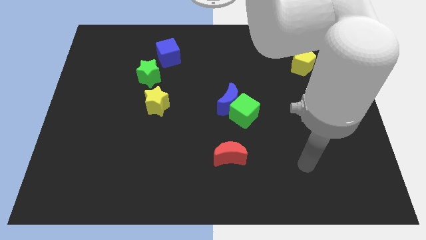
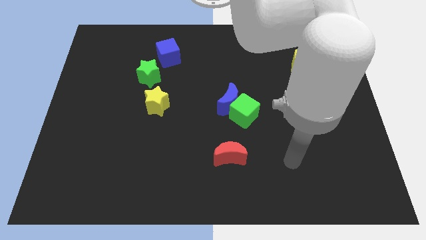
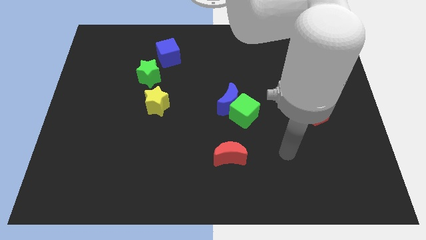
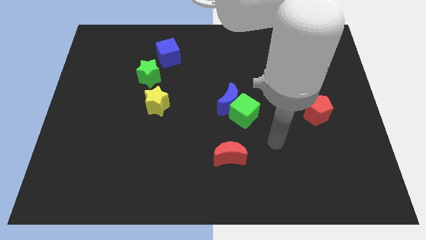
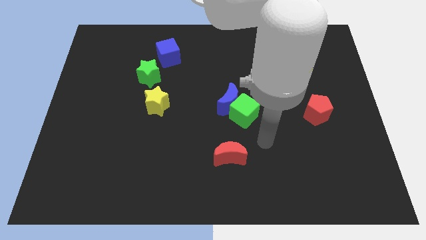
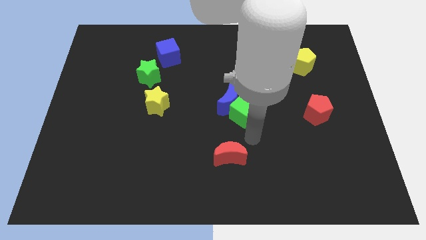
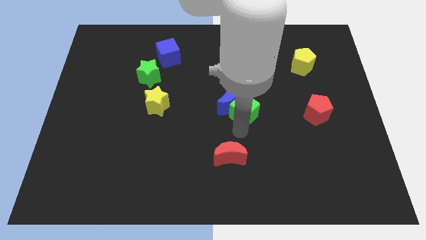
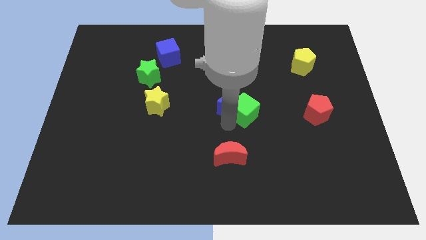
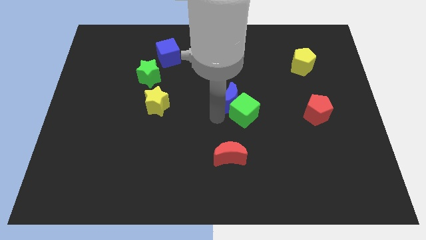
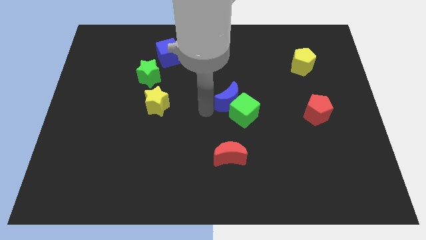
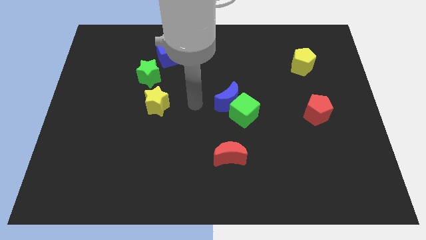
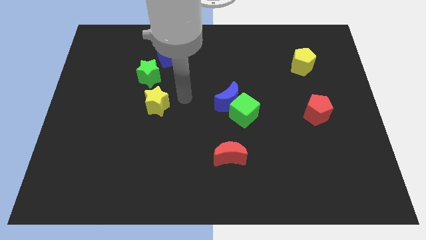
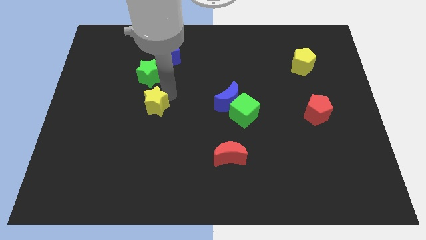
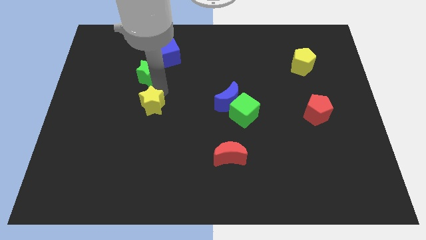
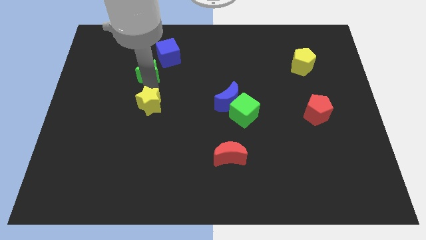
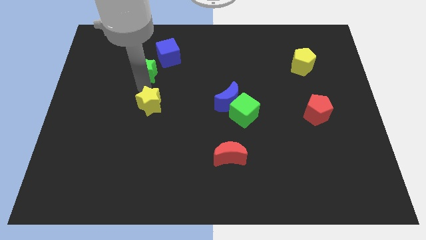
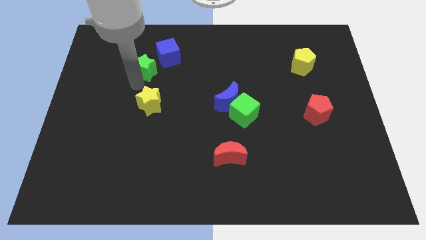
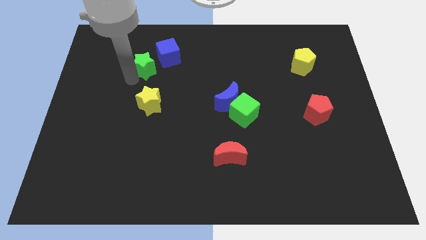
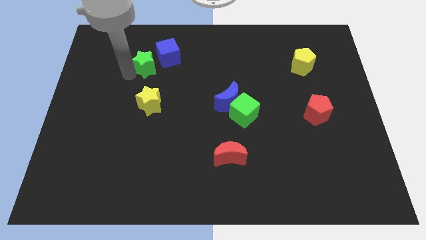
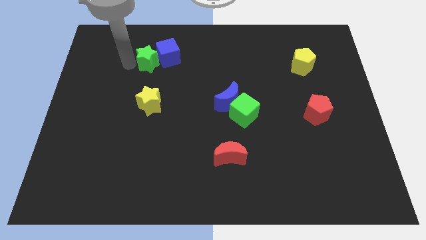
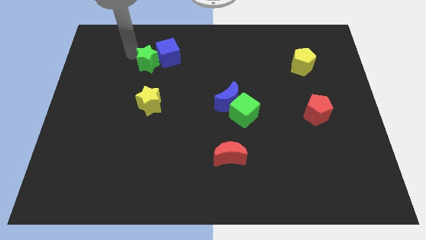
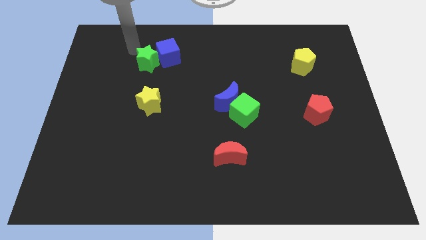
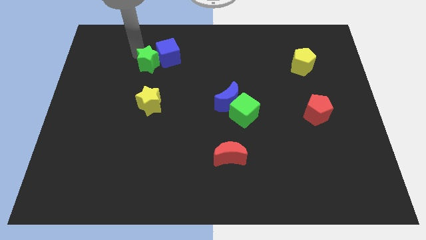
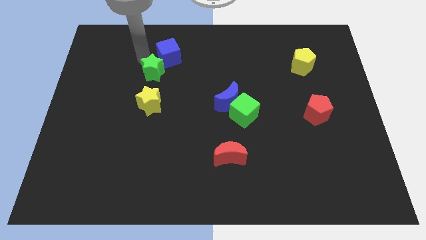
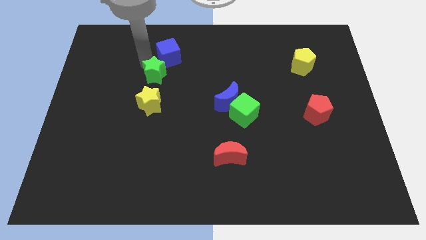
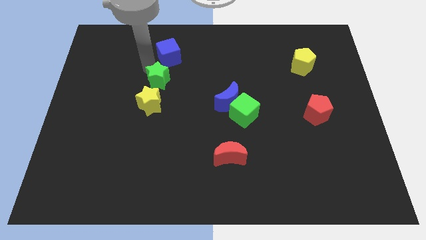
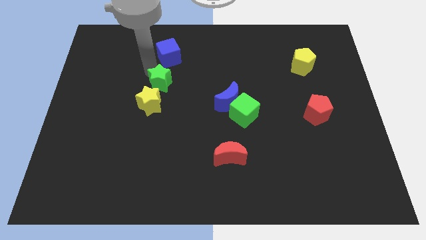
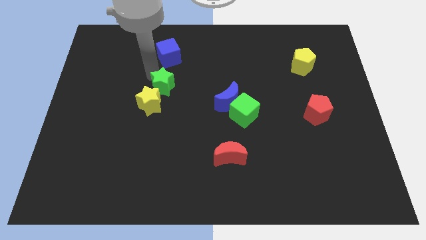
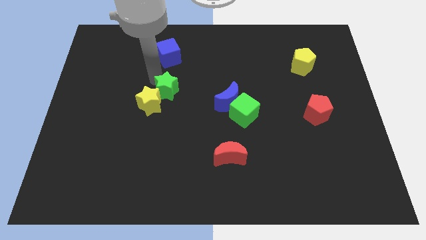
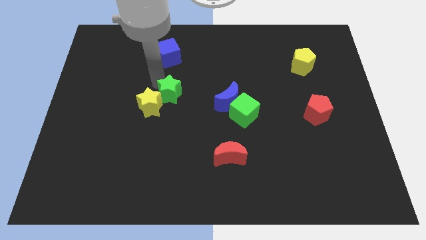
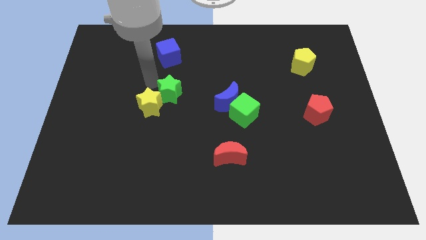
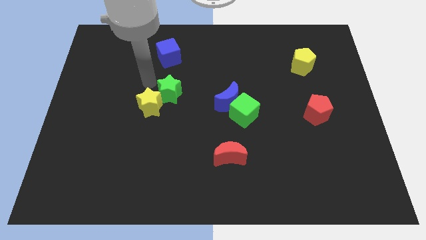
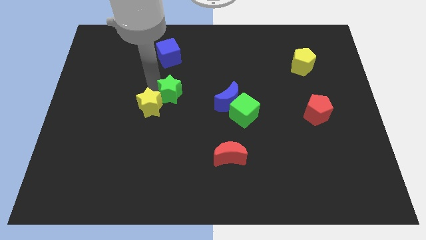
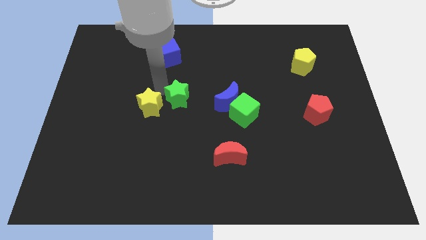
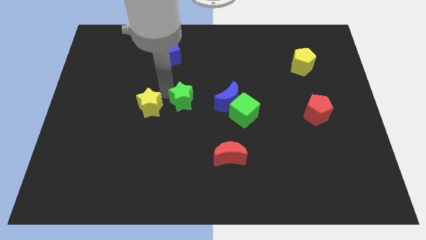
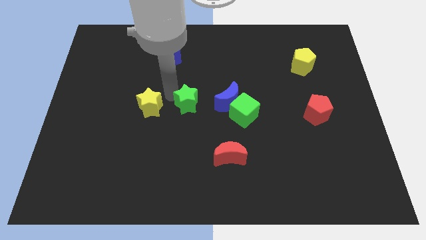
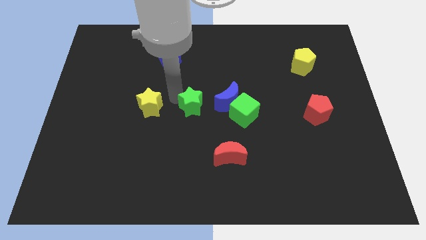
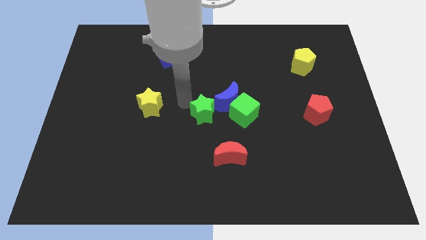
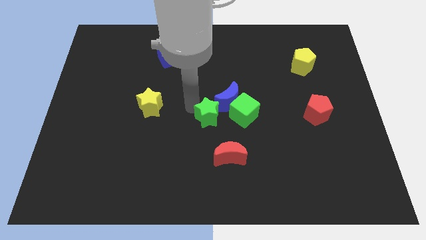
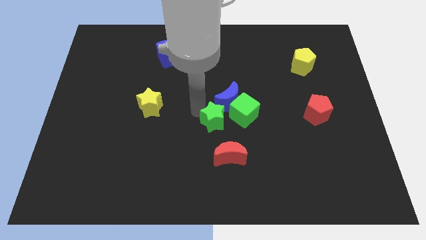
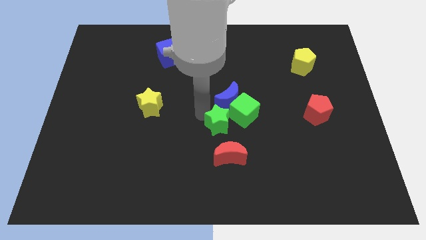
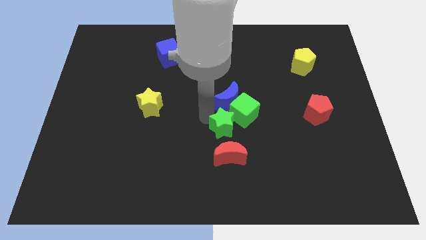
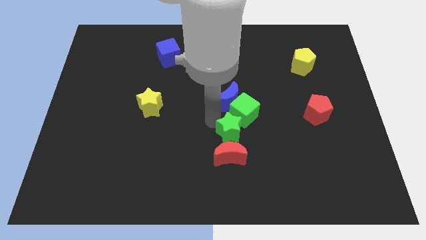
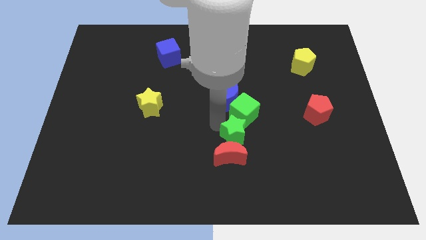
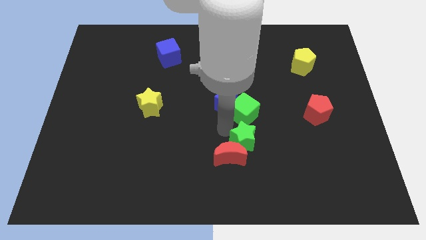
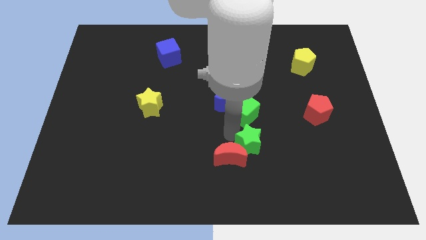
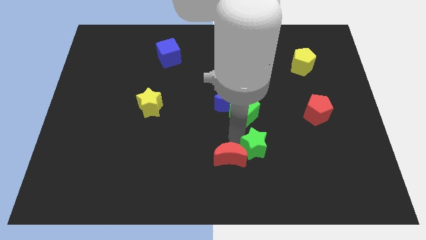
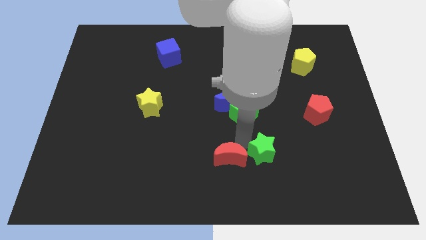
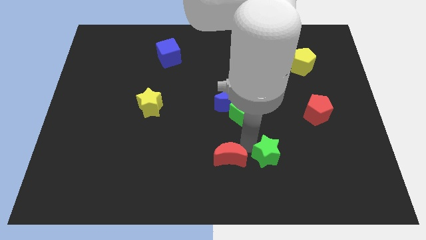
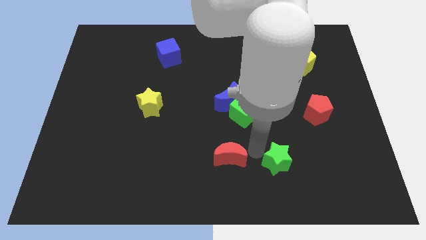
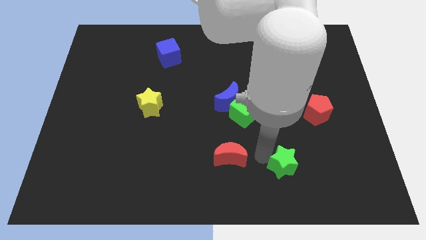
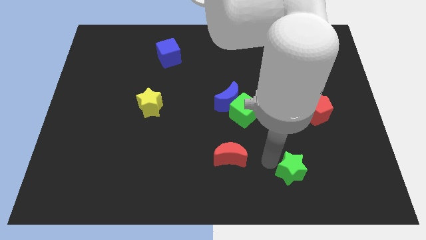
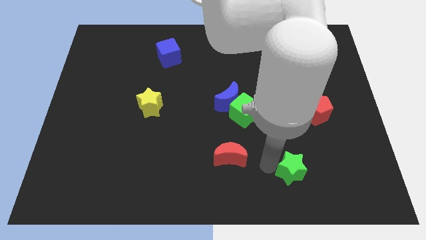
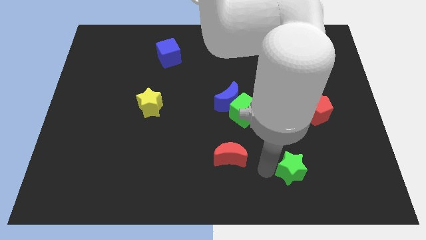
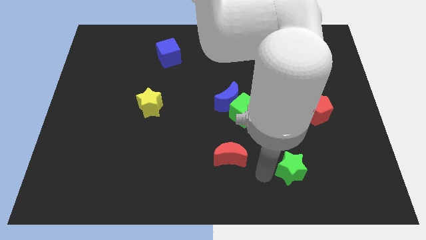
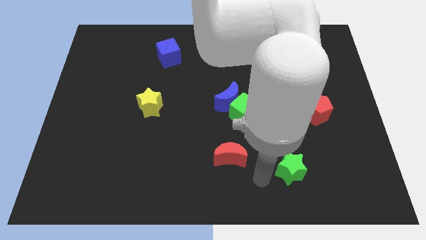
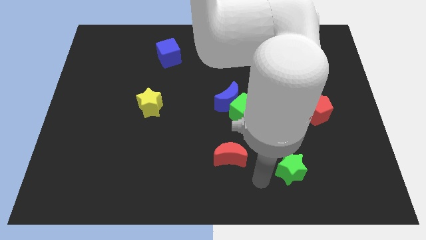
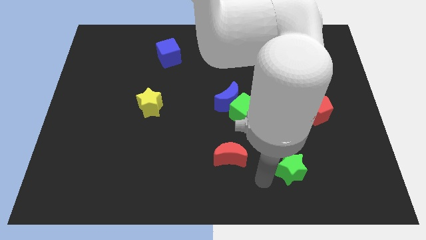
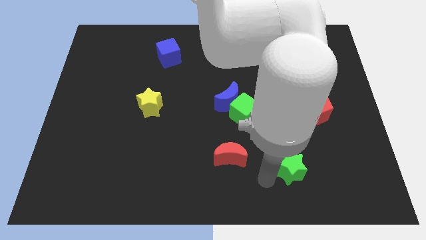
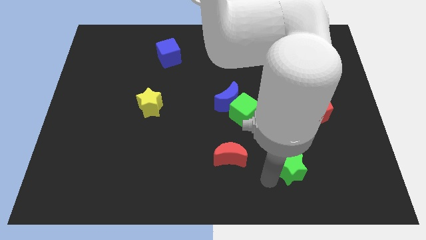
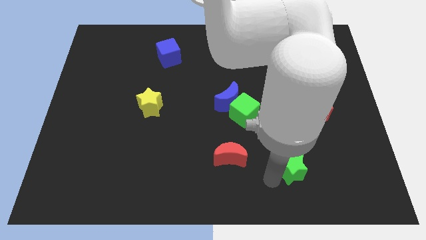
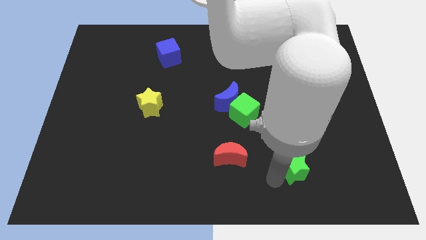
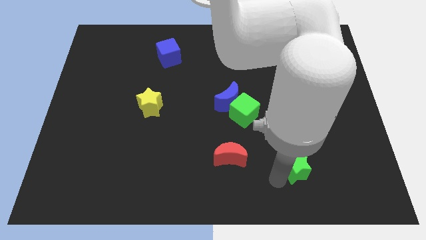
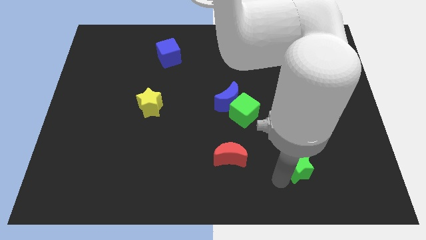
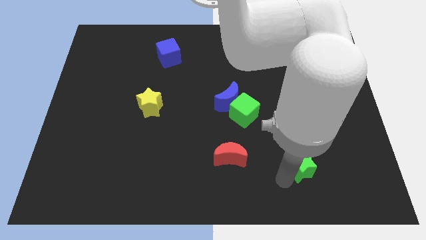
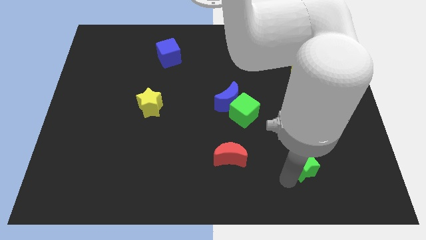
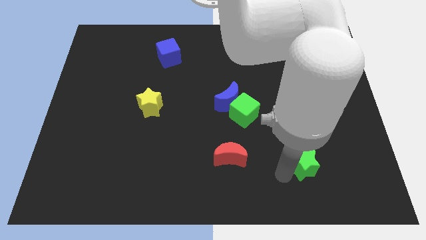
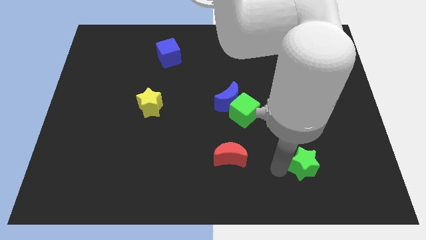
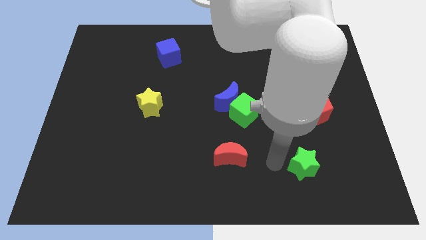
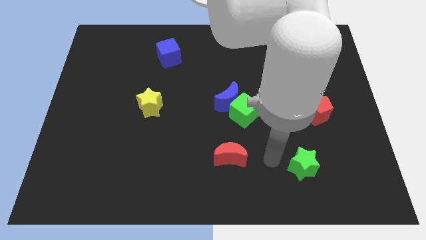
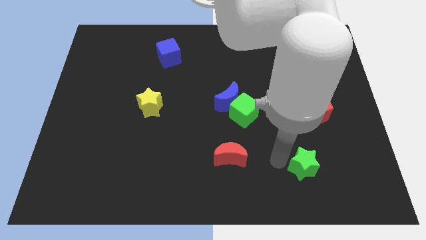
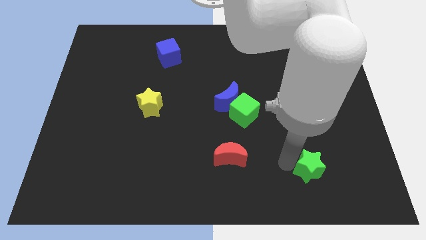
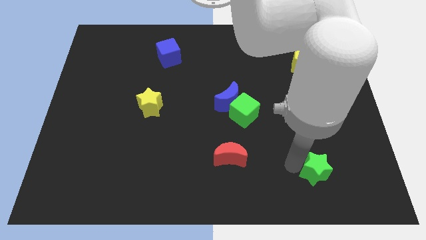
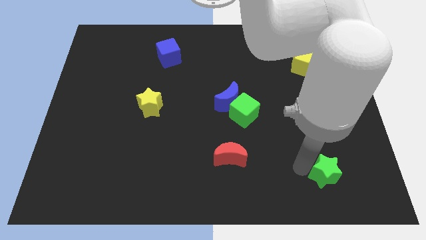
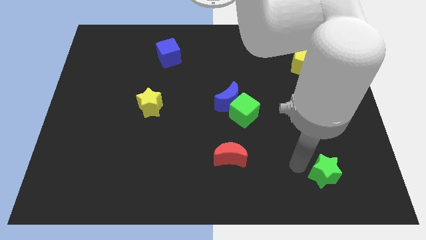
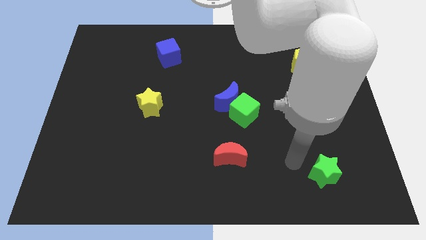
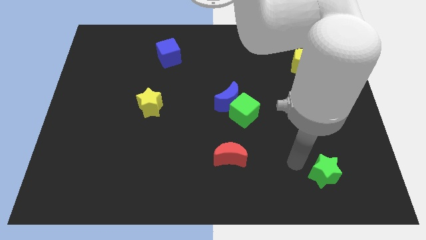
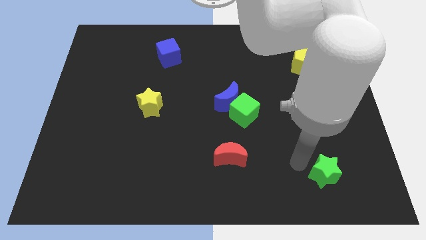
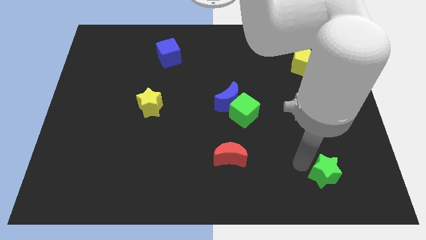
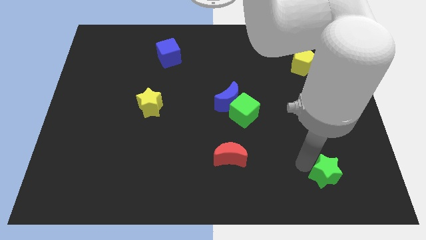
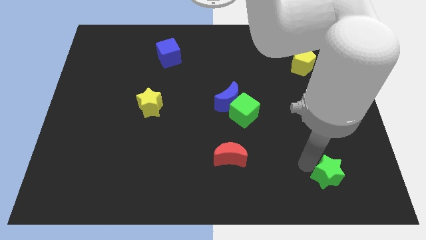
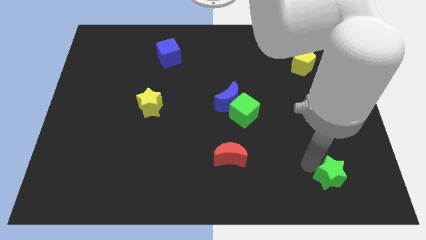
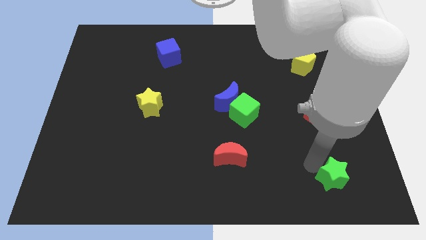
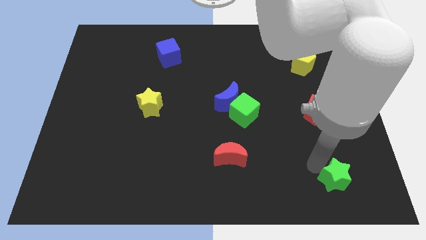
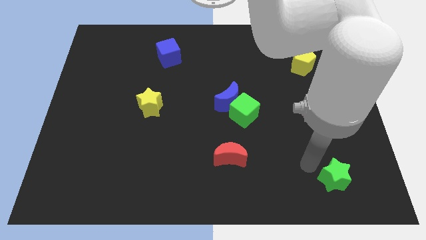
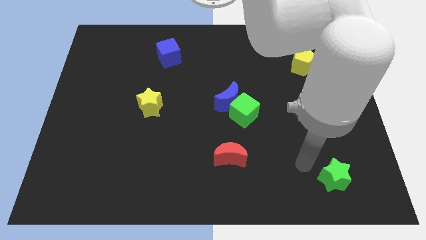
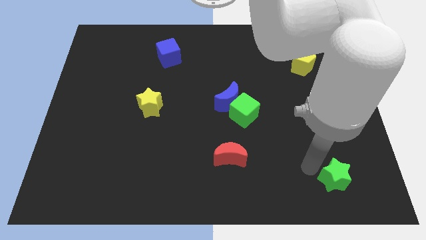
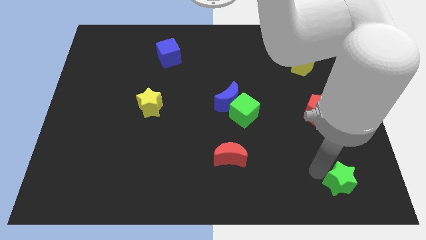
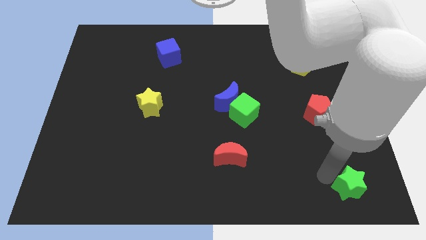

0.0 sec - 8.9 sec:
move the green star to the lower right corner
